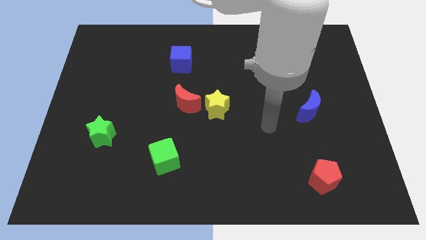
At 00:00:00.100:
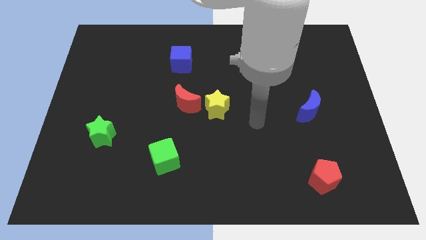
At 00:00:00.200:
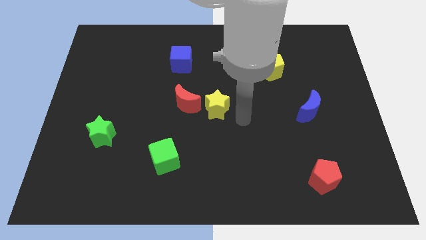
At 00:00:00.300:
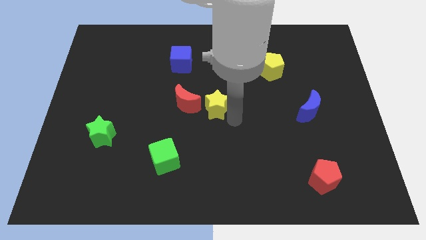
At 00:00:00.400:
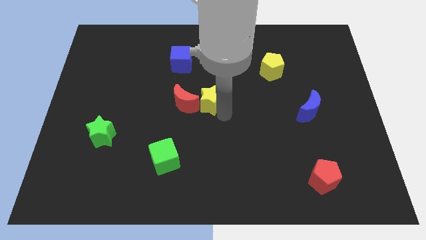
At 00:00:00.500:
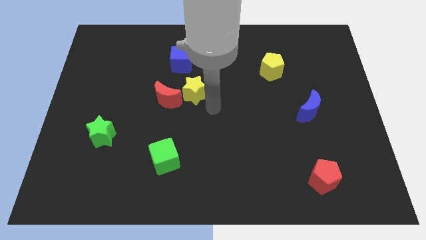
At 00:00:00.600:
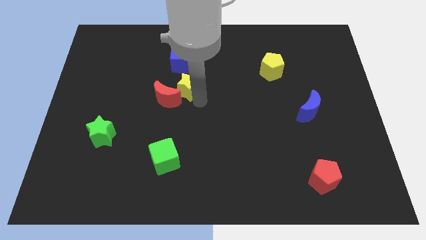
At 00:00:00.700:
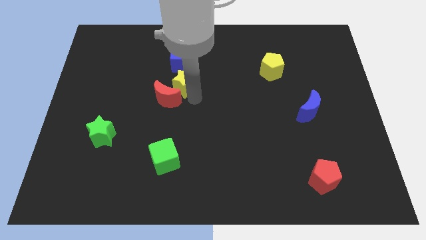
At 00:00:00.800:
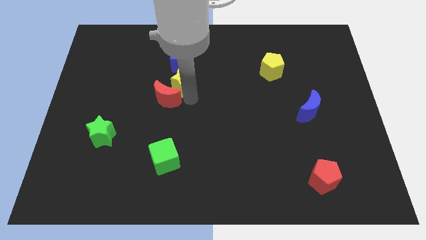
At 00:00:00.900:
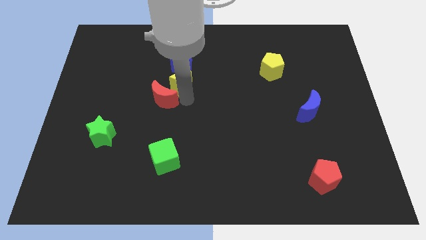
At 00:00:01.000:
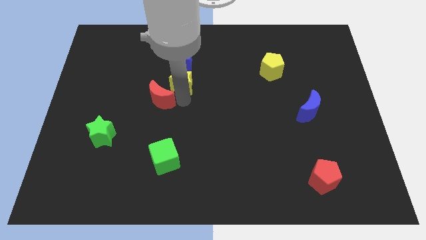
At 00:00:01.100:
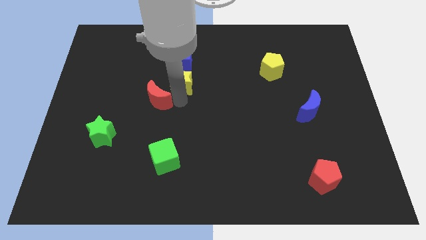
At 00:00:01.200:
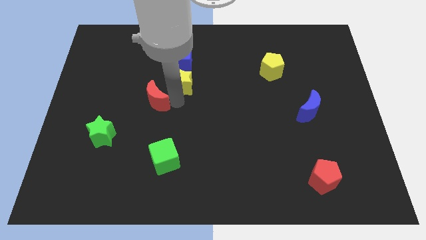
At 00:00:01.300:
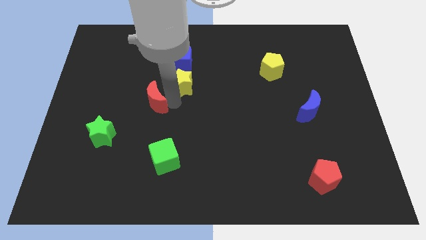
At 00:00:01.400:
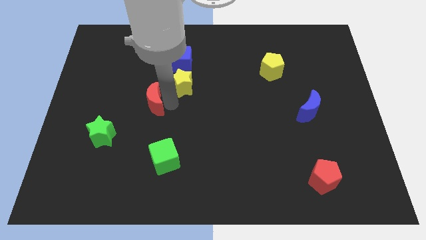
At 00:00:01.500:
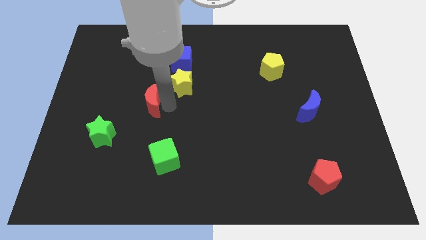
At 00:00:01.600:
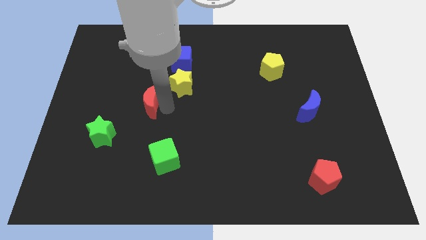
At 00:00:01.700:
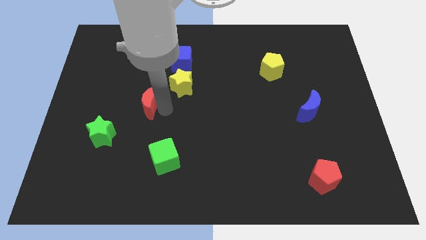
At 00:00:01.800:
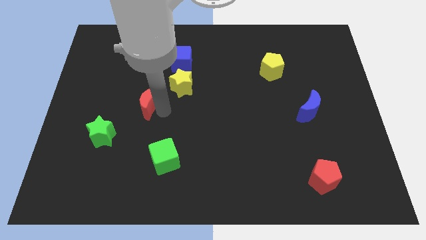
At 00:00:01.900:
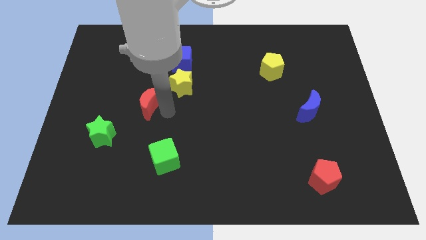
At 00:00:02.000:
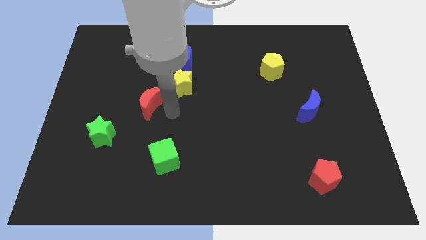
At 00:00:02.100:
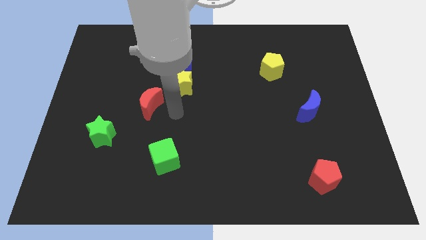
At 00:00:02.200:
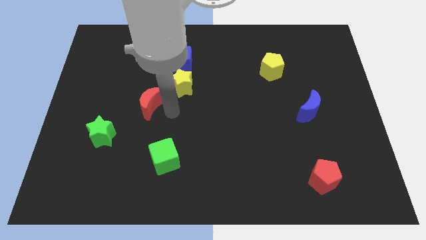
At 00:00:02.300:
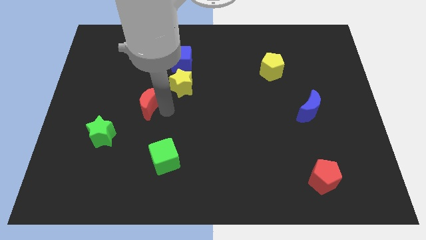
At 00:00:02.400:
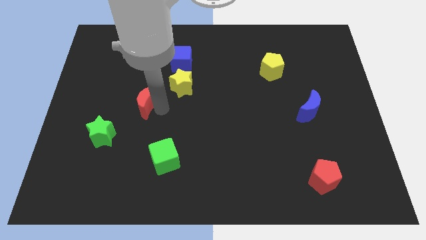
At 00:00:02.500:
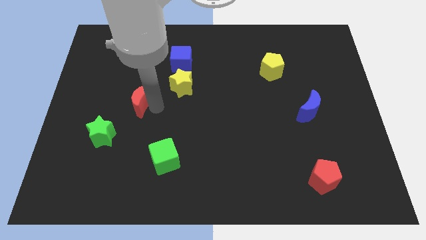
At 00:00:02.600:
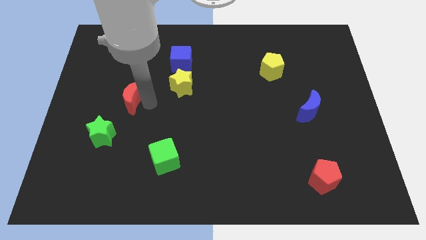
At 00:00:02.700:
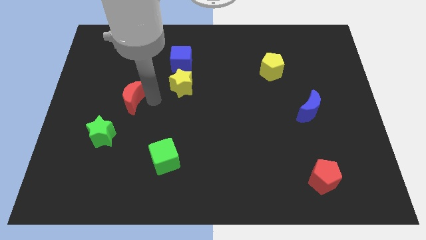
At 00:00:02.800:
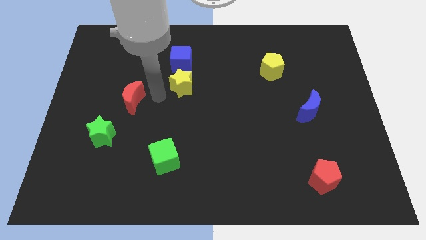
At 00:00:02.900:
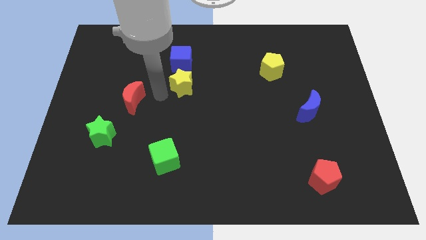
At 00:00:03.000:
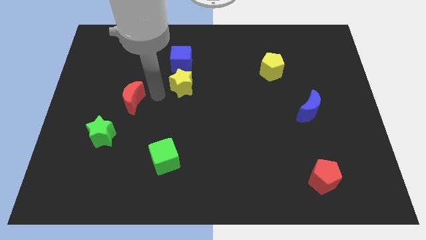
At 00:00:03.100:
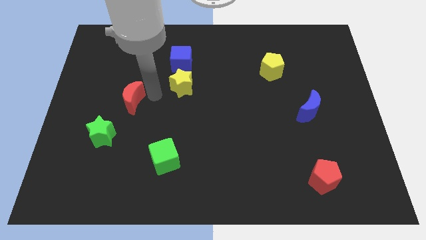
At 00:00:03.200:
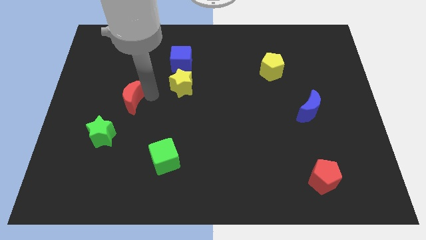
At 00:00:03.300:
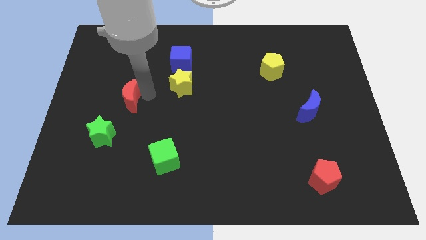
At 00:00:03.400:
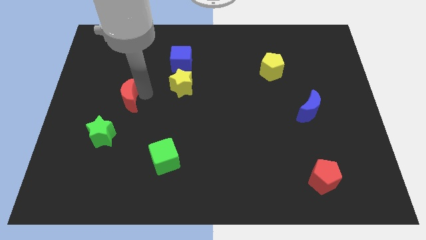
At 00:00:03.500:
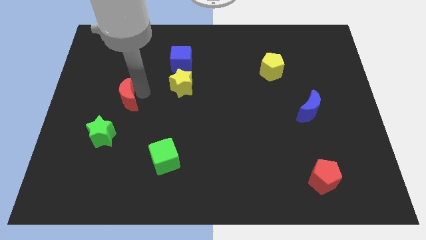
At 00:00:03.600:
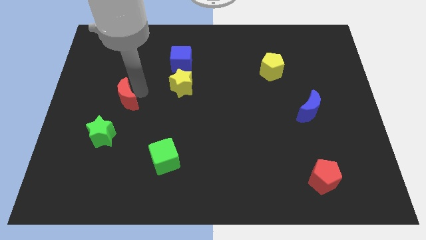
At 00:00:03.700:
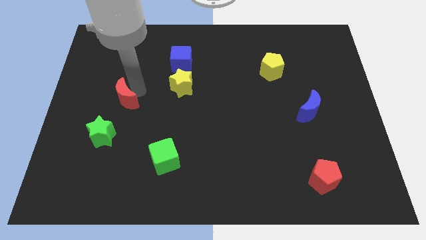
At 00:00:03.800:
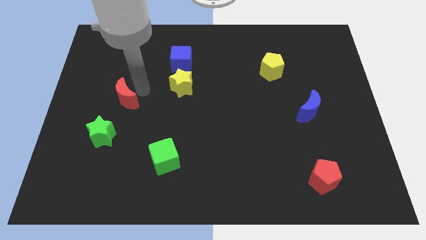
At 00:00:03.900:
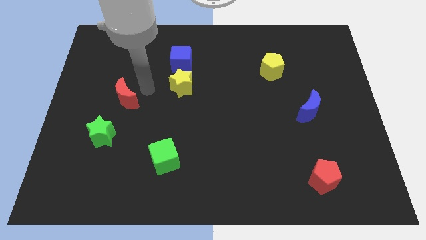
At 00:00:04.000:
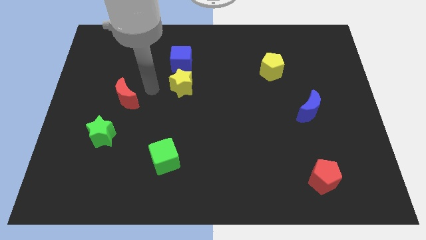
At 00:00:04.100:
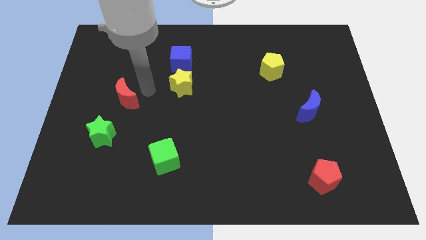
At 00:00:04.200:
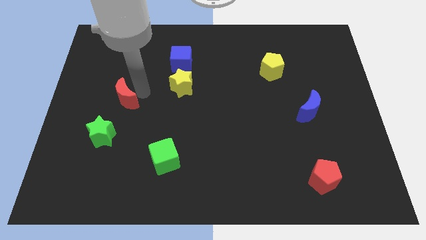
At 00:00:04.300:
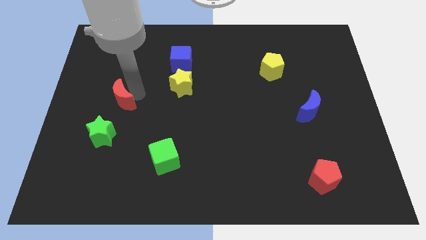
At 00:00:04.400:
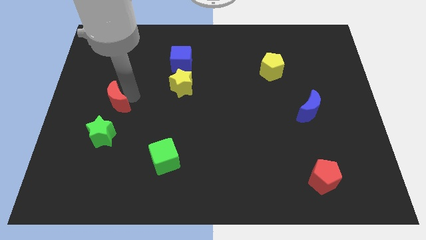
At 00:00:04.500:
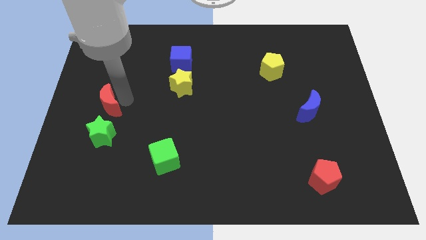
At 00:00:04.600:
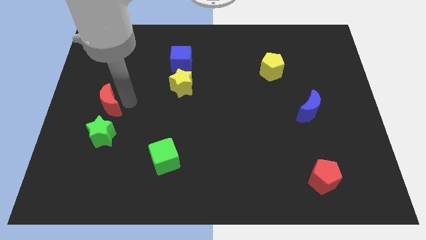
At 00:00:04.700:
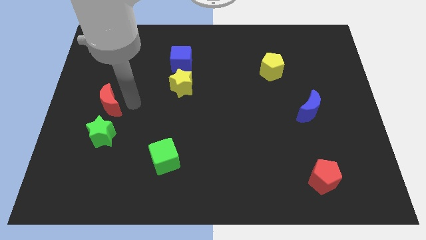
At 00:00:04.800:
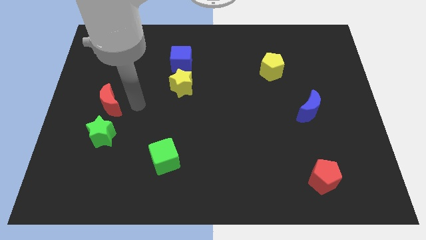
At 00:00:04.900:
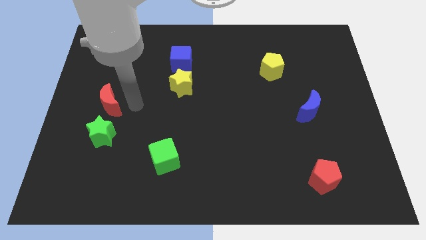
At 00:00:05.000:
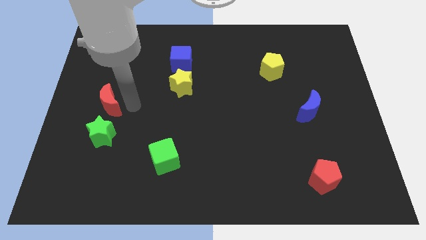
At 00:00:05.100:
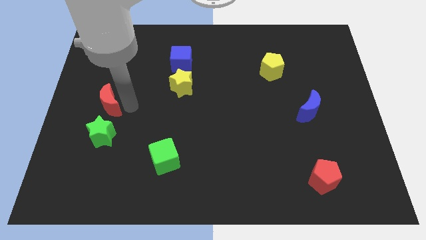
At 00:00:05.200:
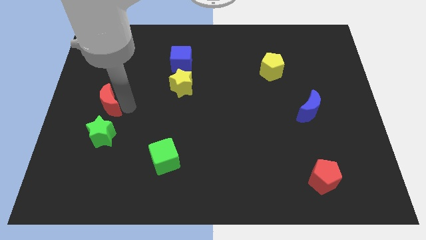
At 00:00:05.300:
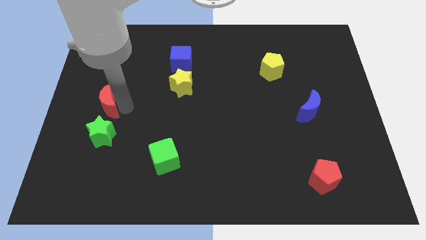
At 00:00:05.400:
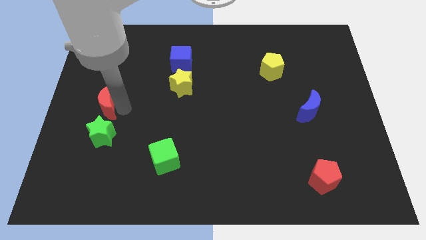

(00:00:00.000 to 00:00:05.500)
slide the red moon to the left side of the board

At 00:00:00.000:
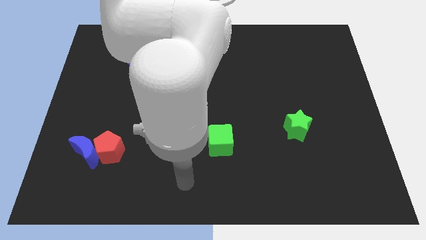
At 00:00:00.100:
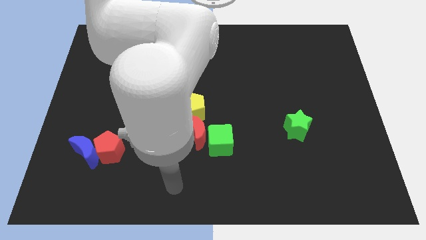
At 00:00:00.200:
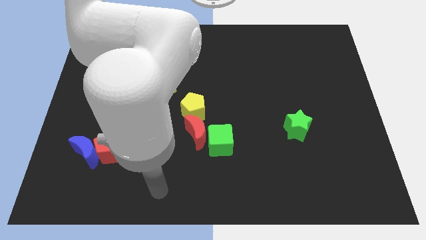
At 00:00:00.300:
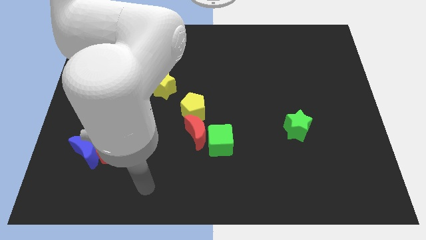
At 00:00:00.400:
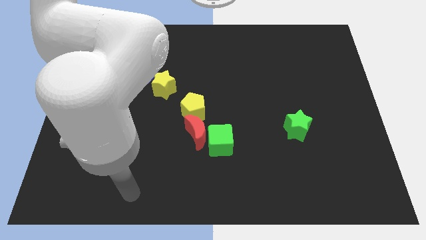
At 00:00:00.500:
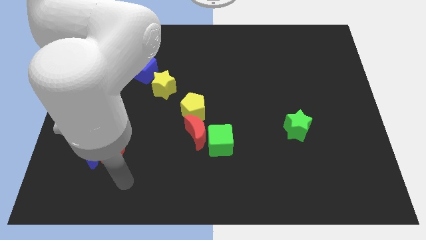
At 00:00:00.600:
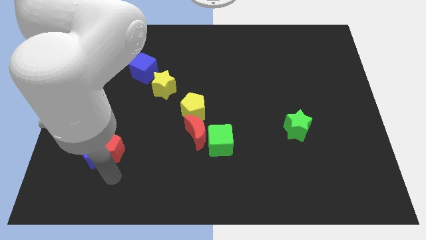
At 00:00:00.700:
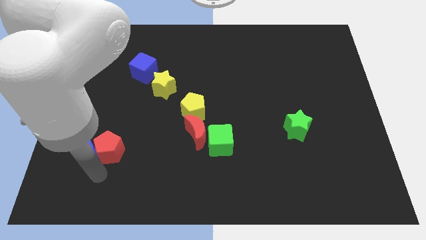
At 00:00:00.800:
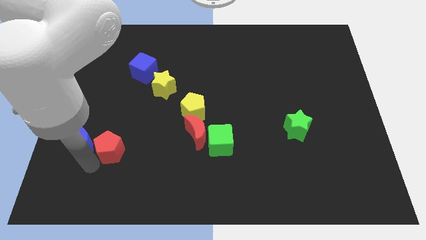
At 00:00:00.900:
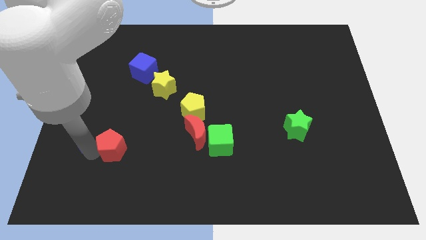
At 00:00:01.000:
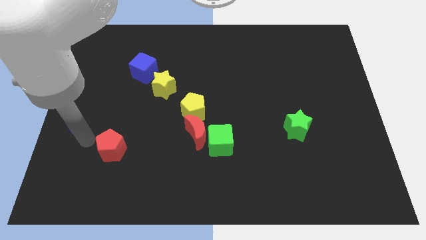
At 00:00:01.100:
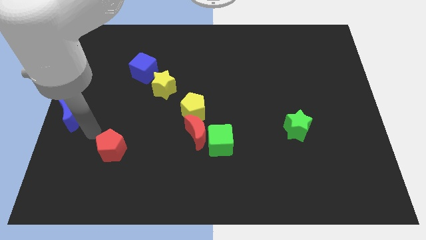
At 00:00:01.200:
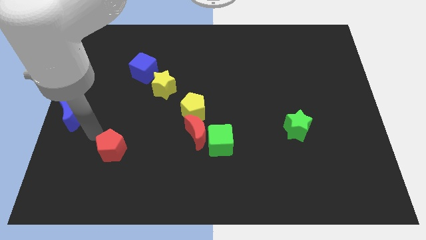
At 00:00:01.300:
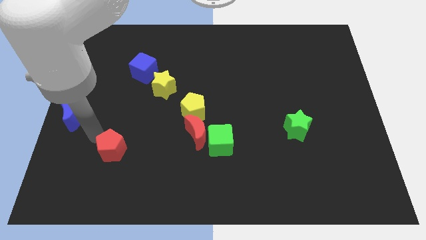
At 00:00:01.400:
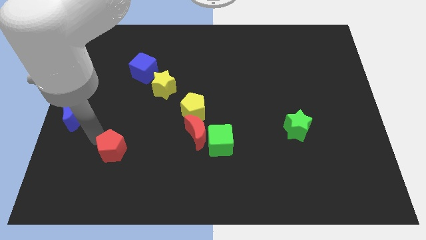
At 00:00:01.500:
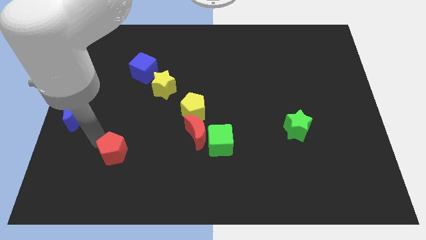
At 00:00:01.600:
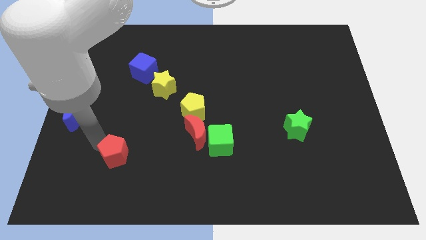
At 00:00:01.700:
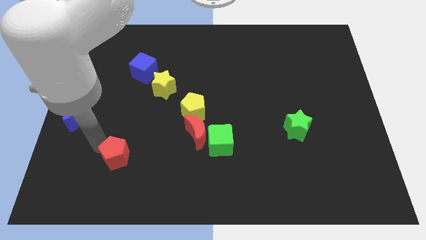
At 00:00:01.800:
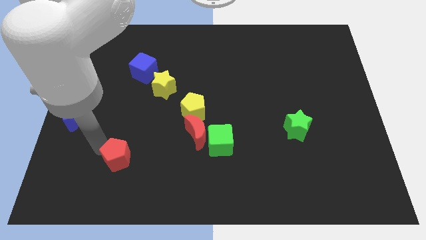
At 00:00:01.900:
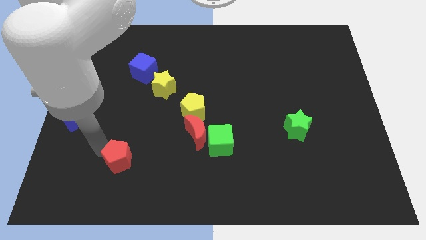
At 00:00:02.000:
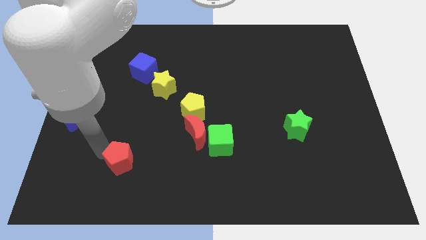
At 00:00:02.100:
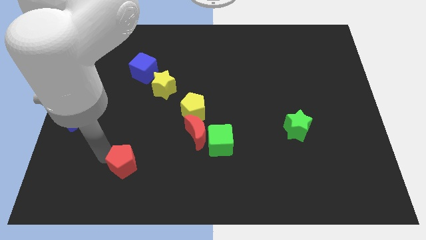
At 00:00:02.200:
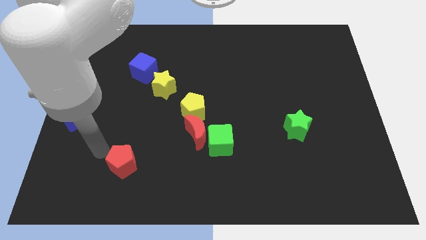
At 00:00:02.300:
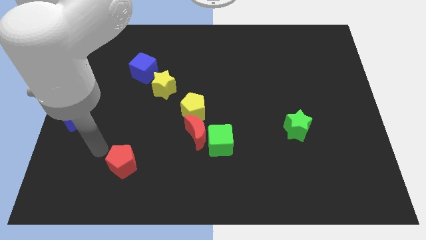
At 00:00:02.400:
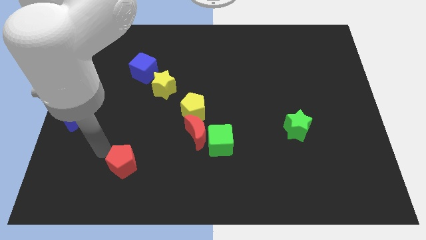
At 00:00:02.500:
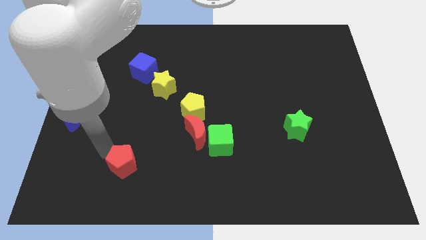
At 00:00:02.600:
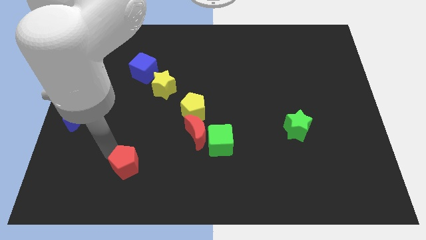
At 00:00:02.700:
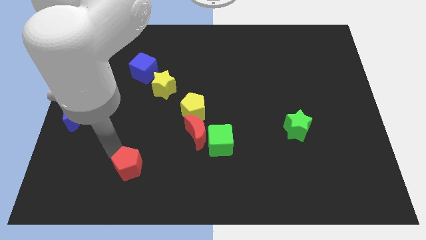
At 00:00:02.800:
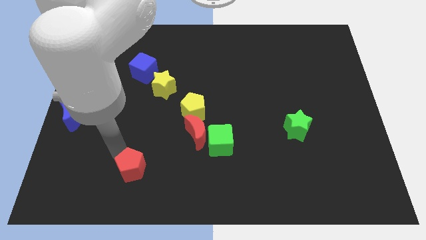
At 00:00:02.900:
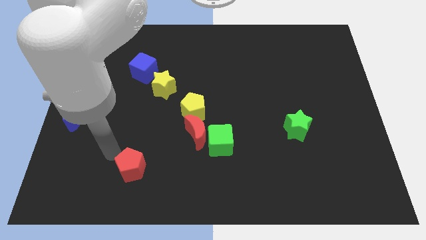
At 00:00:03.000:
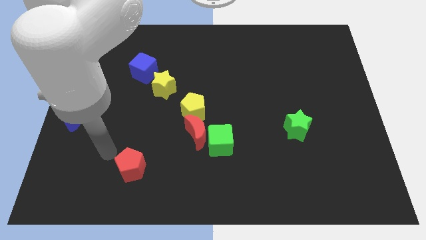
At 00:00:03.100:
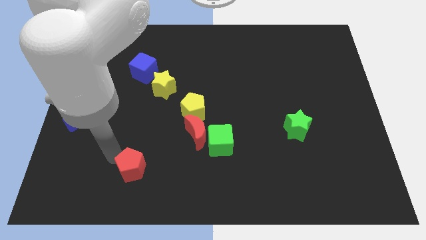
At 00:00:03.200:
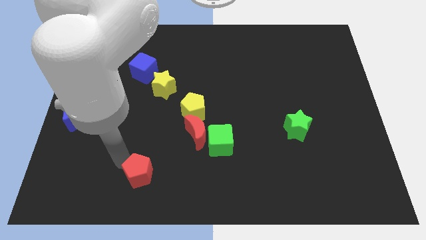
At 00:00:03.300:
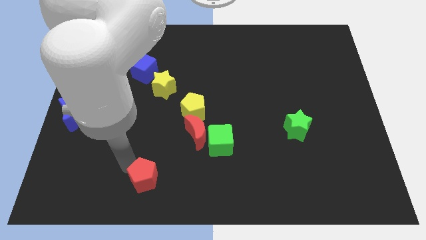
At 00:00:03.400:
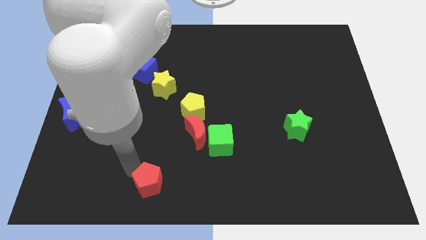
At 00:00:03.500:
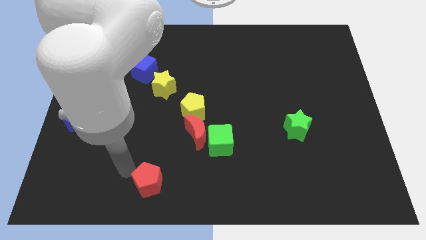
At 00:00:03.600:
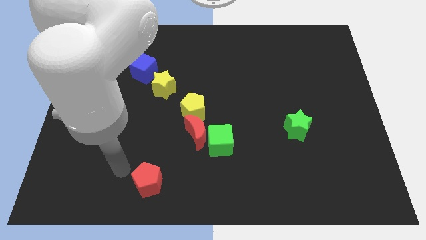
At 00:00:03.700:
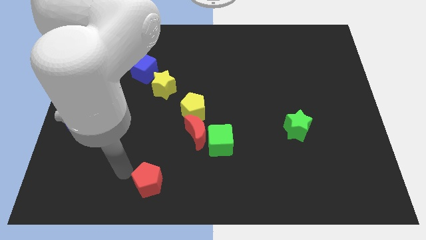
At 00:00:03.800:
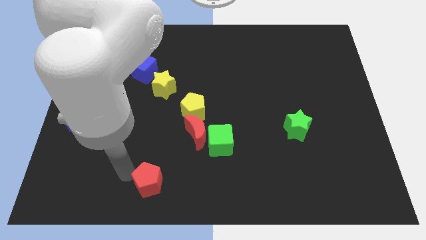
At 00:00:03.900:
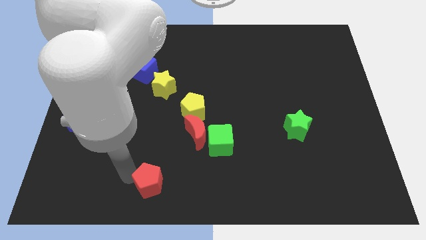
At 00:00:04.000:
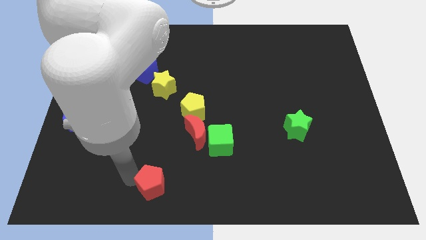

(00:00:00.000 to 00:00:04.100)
slide the red pentagon to the bottom
